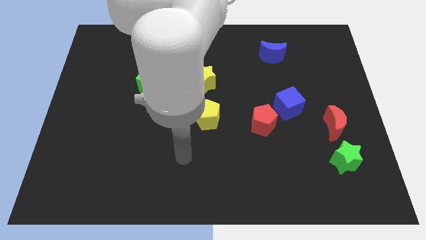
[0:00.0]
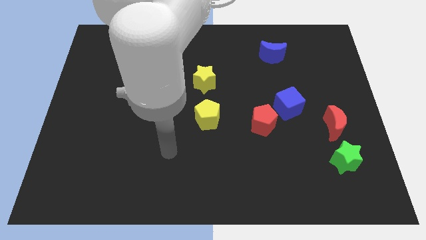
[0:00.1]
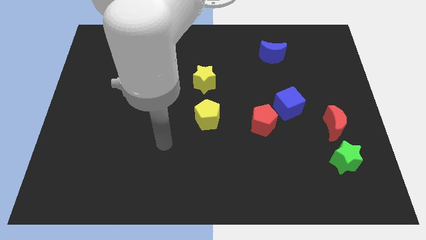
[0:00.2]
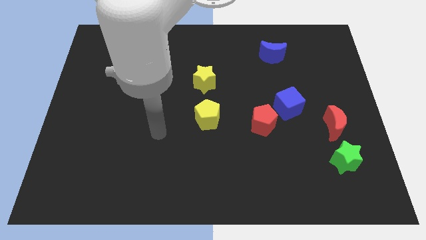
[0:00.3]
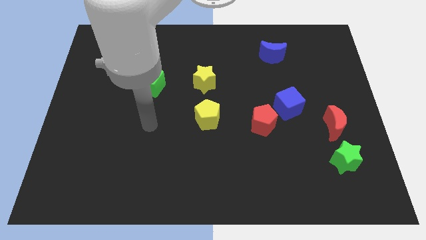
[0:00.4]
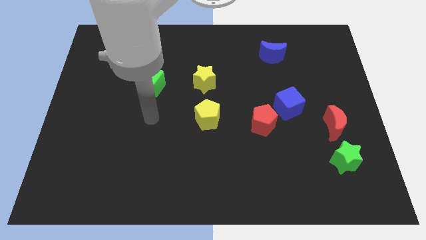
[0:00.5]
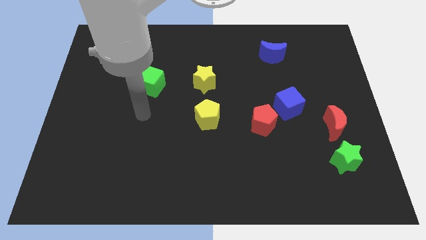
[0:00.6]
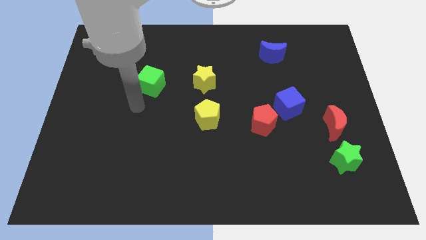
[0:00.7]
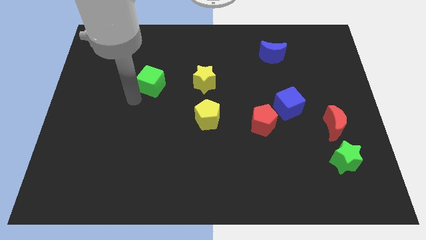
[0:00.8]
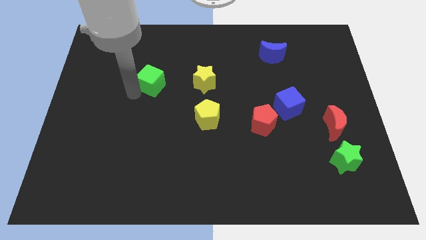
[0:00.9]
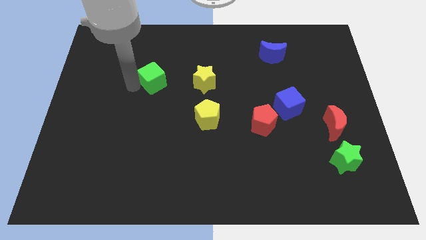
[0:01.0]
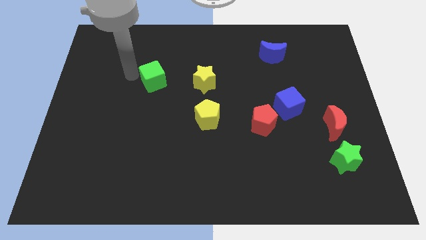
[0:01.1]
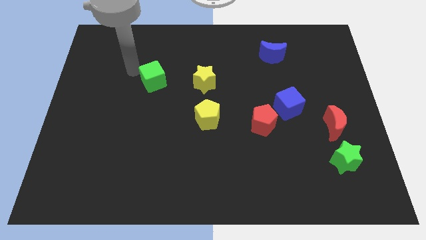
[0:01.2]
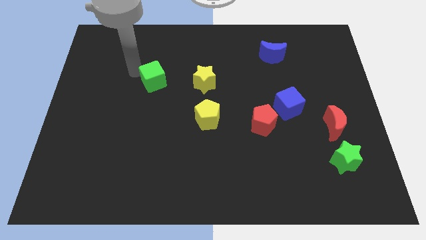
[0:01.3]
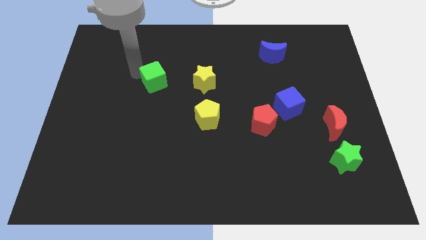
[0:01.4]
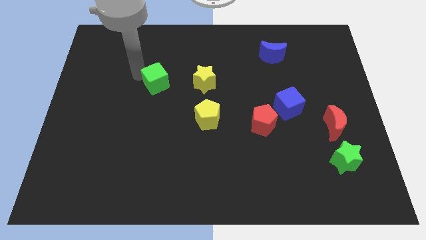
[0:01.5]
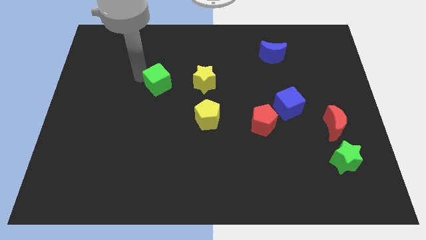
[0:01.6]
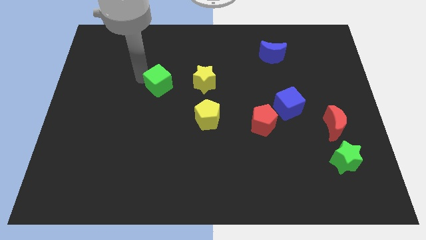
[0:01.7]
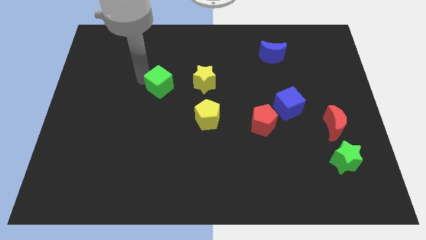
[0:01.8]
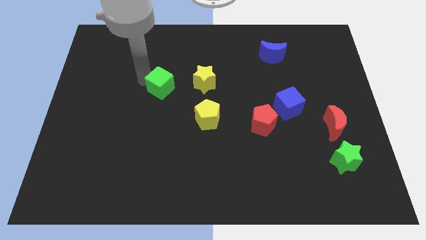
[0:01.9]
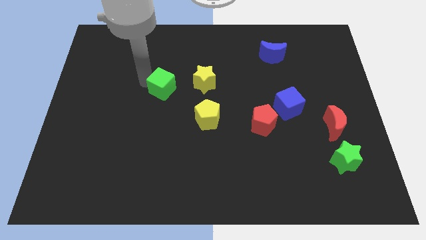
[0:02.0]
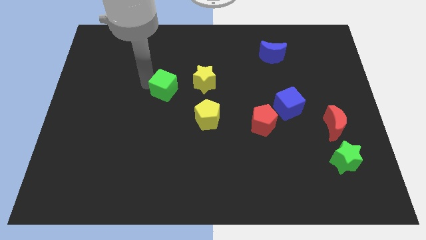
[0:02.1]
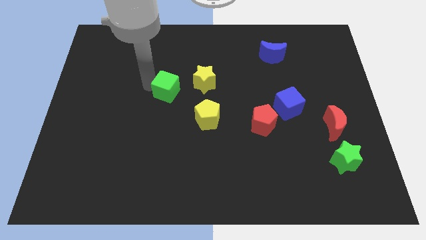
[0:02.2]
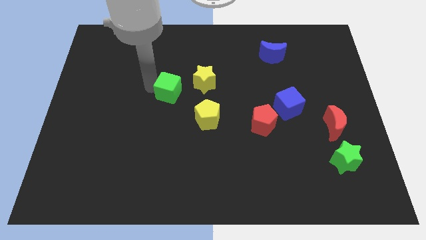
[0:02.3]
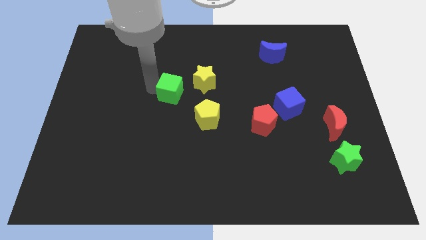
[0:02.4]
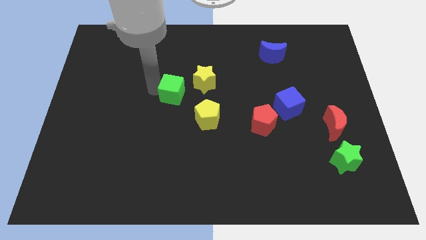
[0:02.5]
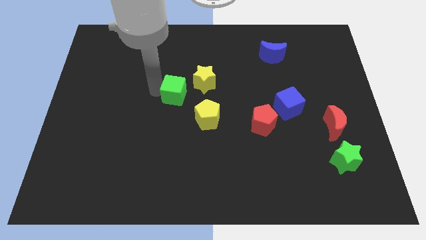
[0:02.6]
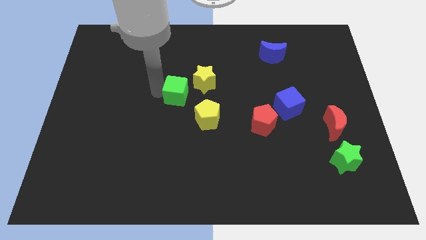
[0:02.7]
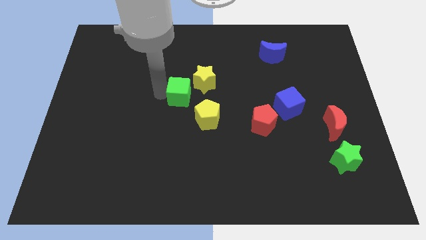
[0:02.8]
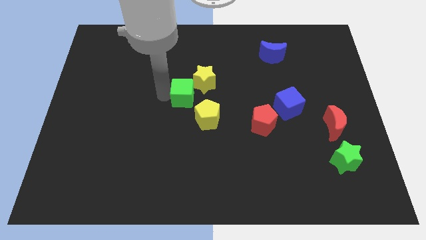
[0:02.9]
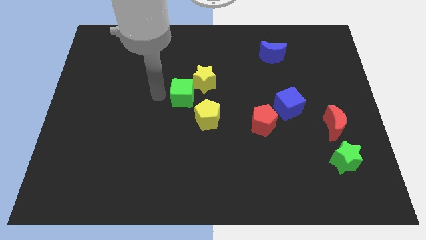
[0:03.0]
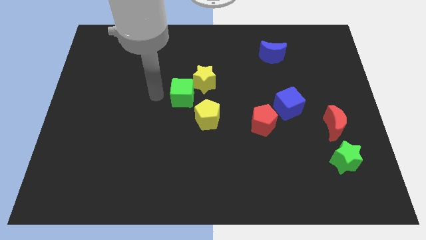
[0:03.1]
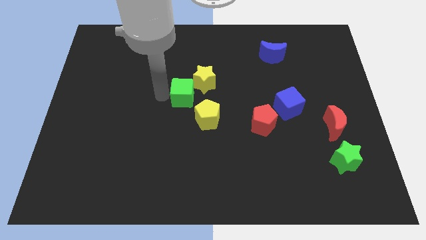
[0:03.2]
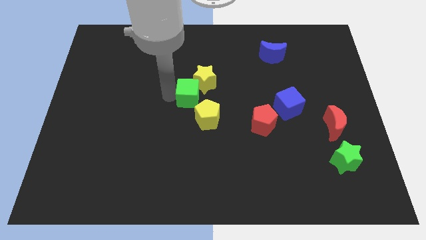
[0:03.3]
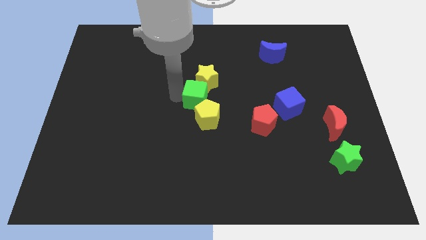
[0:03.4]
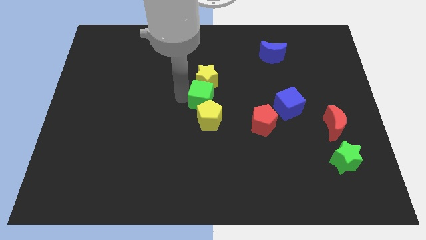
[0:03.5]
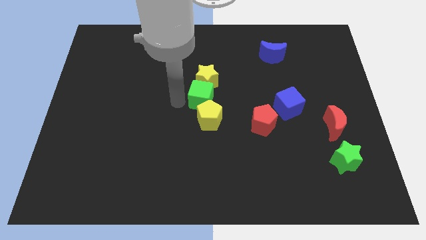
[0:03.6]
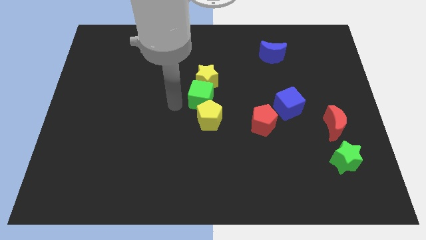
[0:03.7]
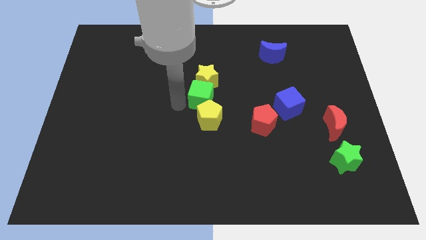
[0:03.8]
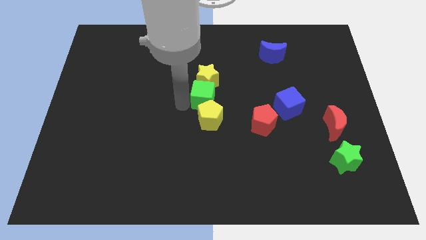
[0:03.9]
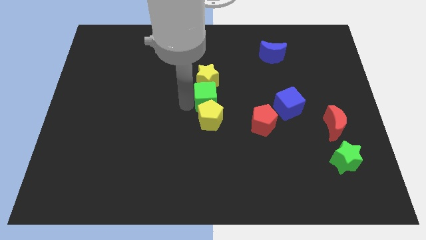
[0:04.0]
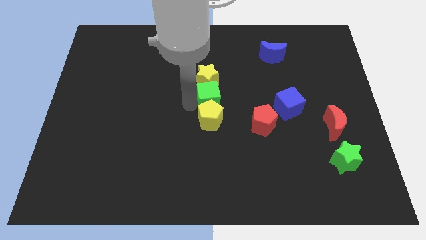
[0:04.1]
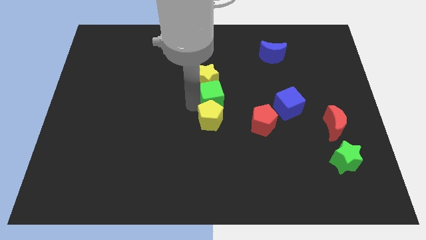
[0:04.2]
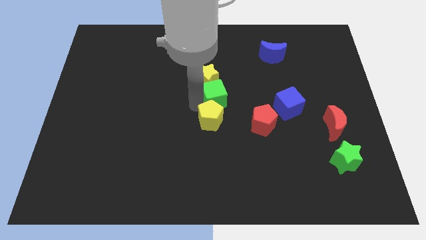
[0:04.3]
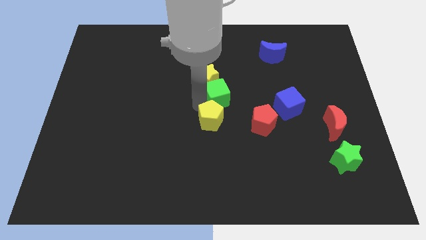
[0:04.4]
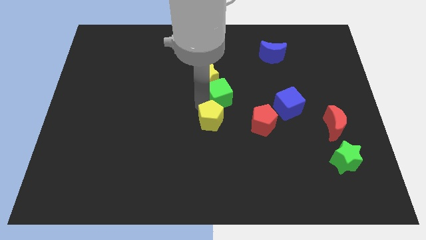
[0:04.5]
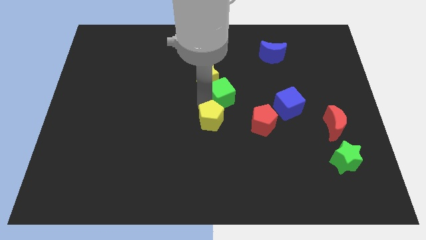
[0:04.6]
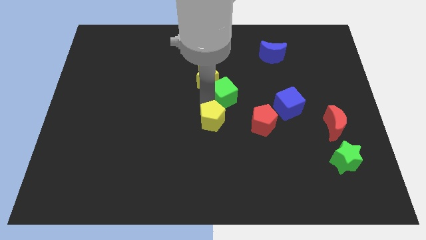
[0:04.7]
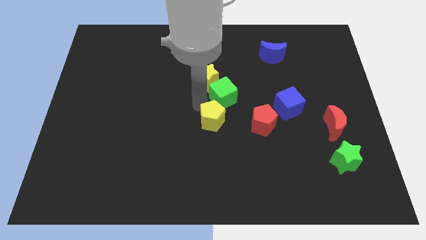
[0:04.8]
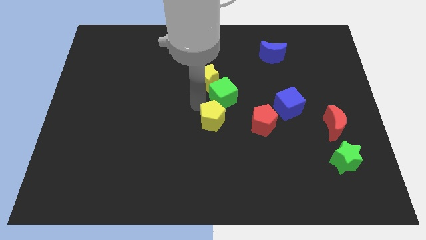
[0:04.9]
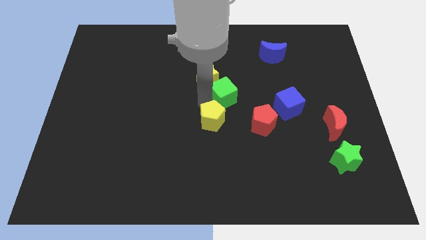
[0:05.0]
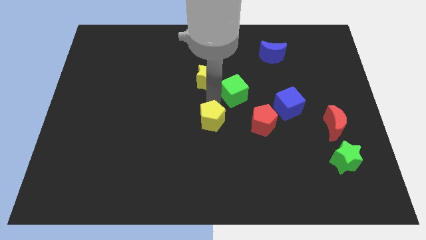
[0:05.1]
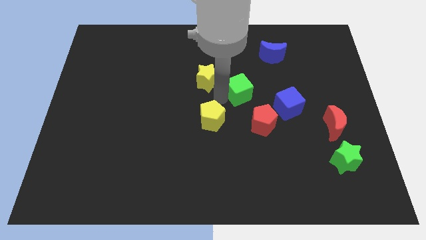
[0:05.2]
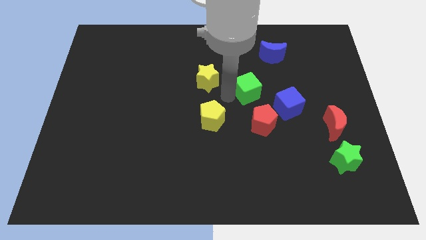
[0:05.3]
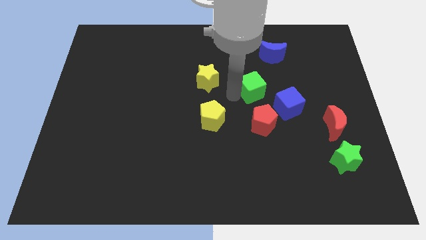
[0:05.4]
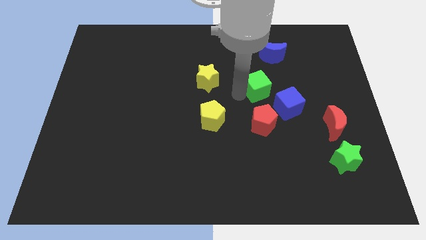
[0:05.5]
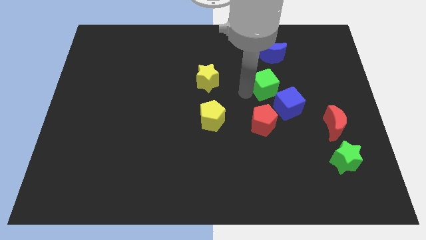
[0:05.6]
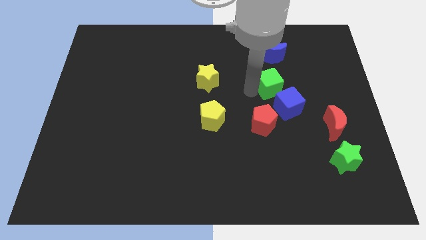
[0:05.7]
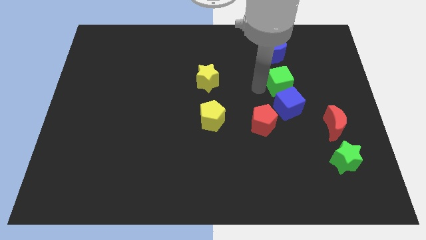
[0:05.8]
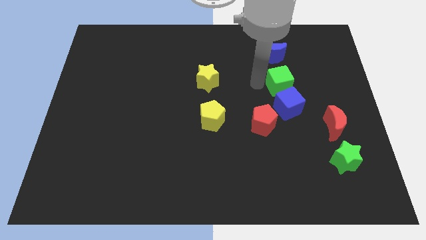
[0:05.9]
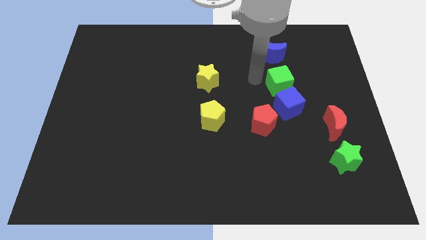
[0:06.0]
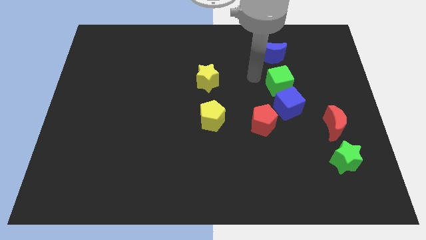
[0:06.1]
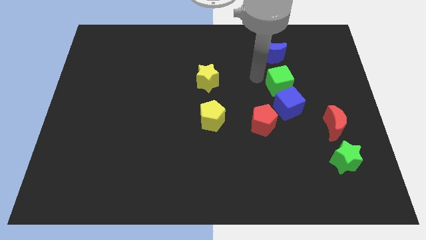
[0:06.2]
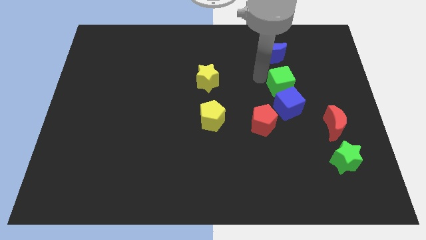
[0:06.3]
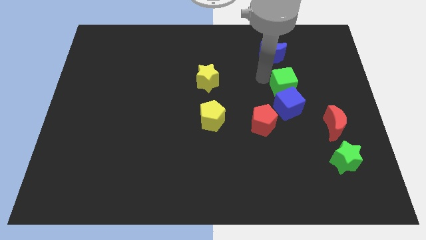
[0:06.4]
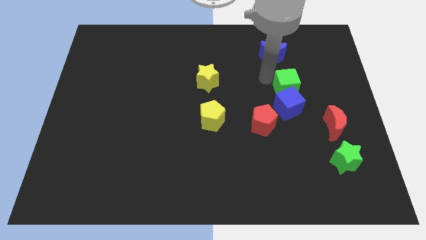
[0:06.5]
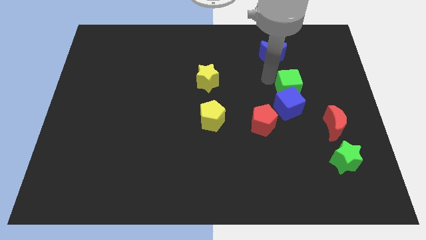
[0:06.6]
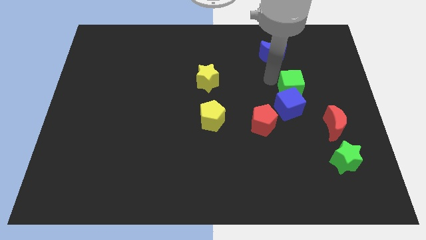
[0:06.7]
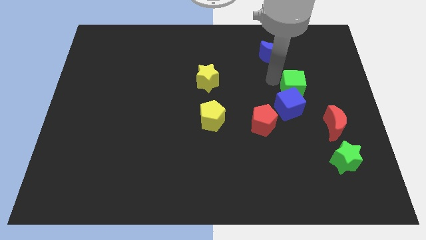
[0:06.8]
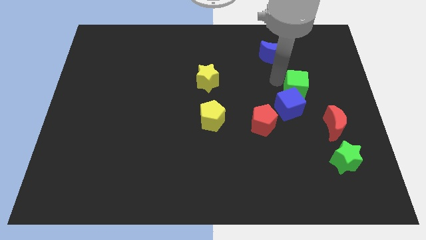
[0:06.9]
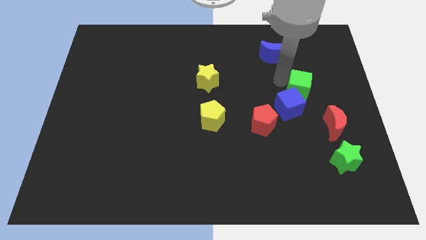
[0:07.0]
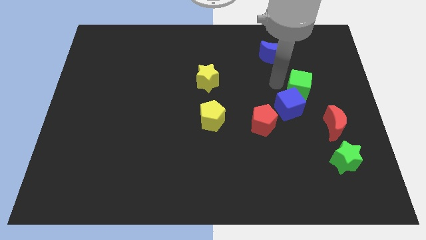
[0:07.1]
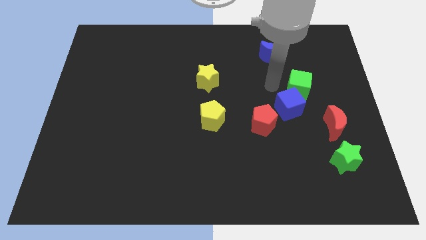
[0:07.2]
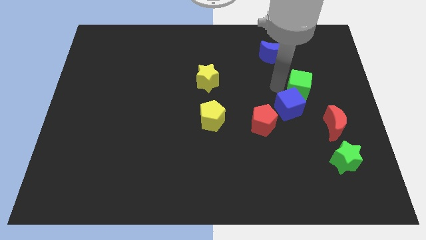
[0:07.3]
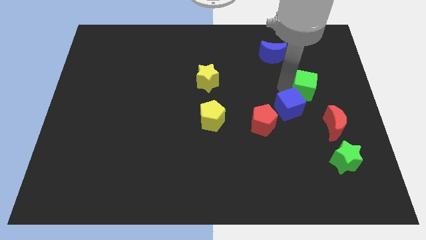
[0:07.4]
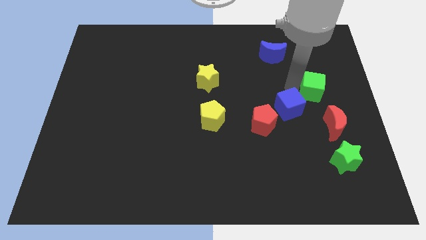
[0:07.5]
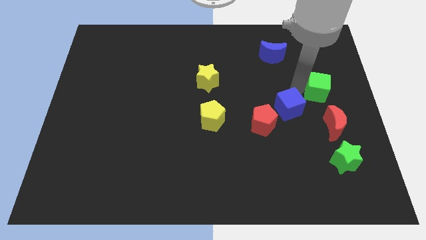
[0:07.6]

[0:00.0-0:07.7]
slide the green cube to the right side
